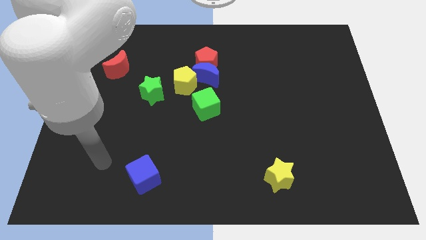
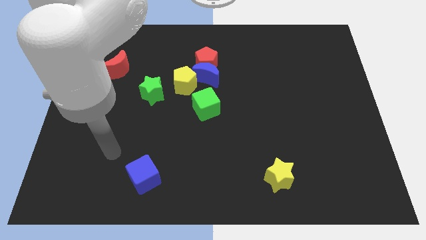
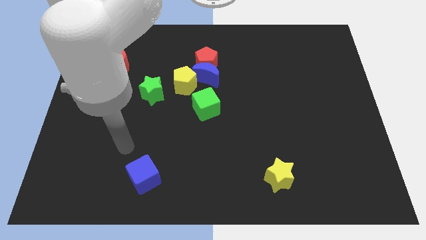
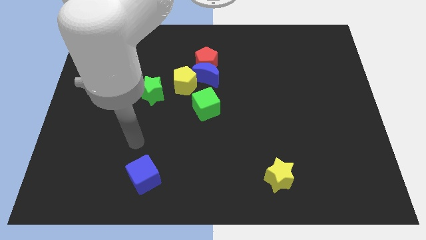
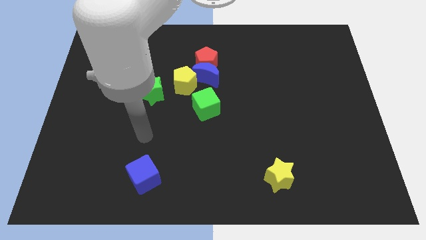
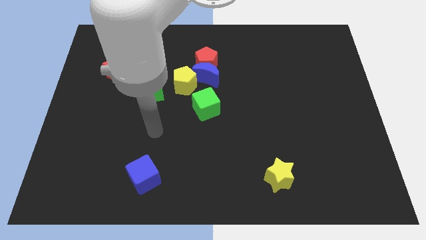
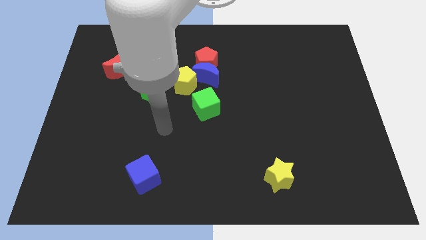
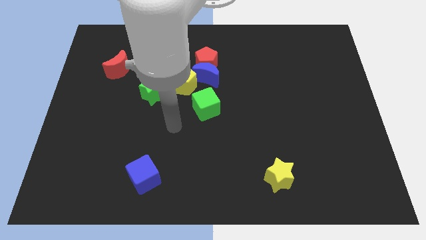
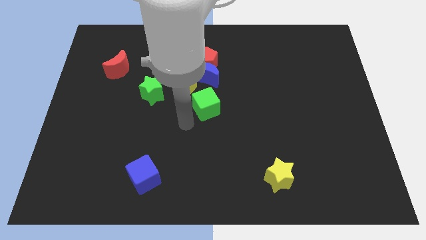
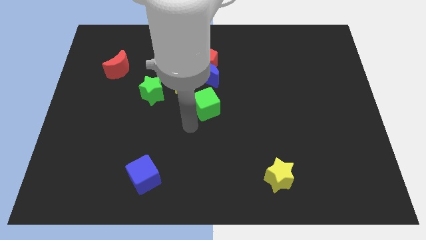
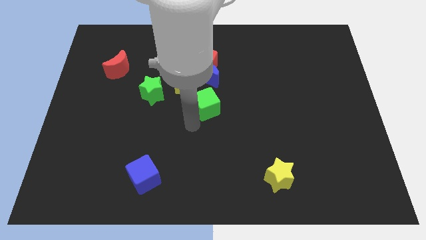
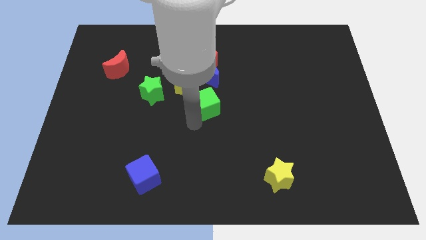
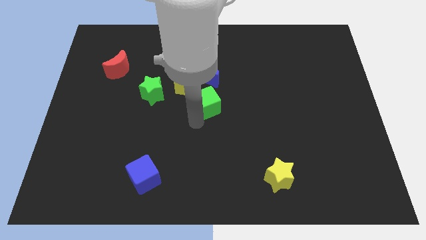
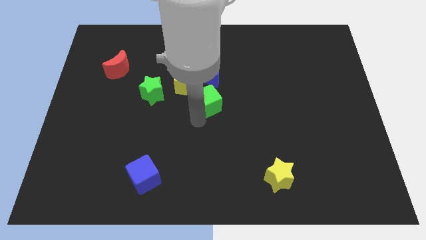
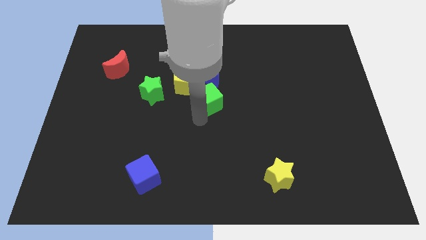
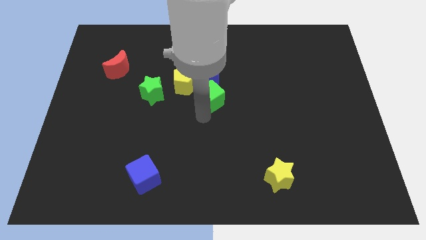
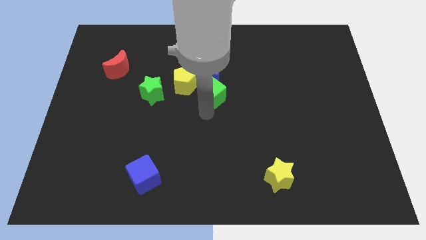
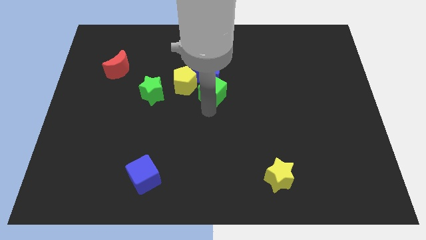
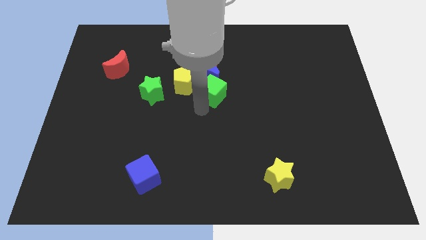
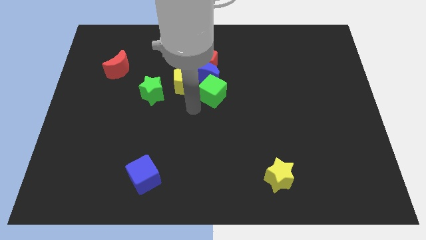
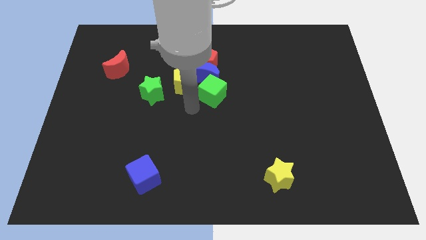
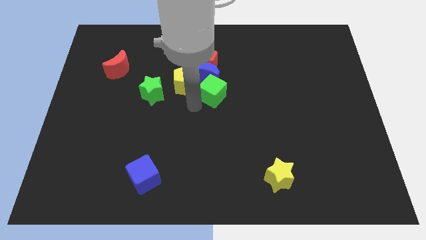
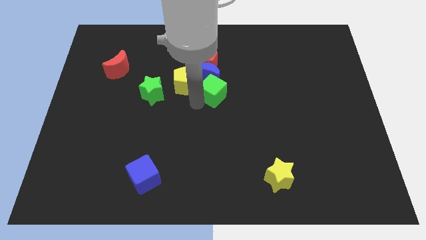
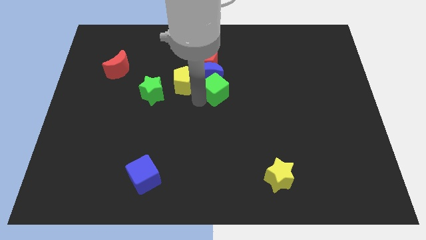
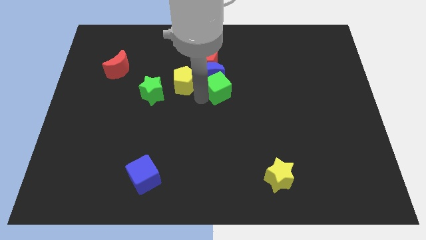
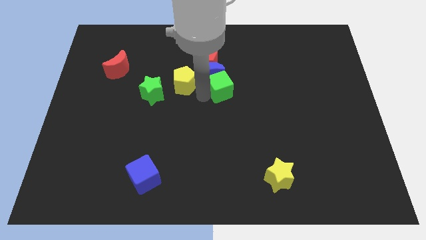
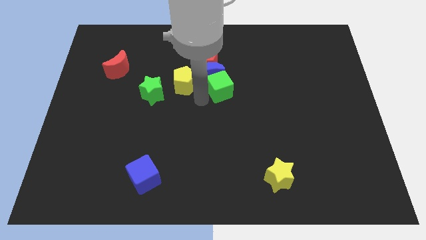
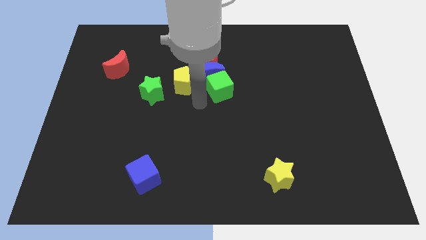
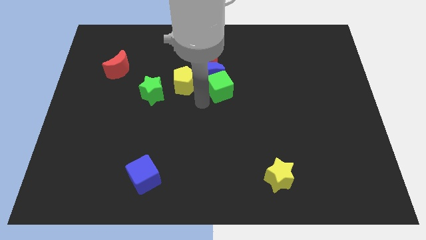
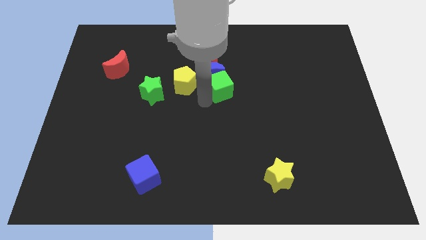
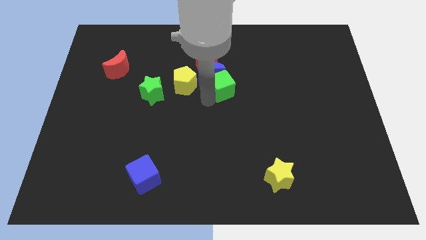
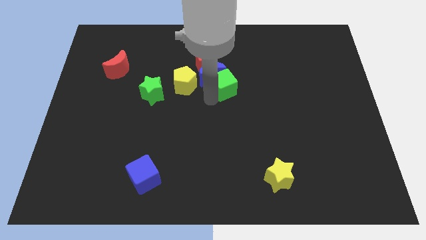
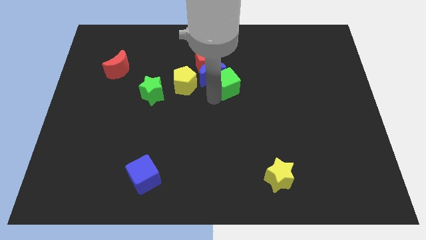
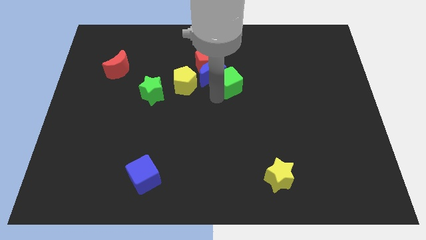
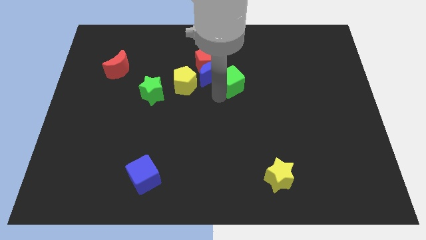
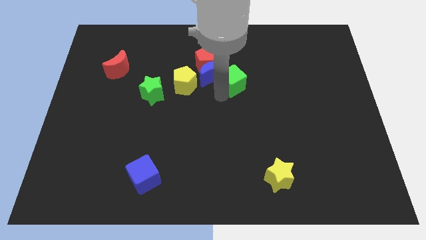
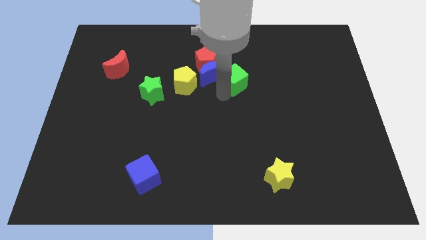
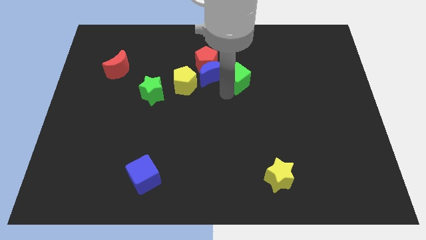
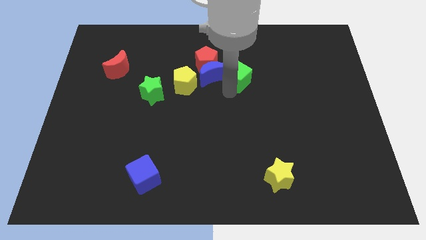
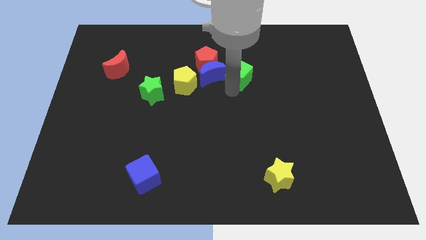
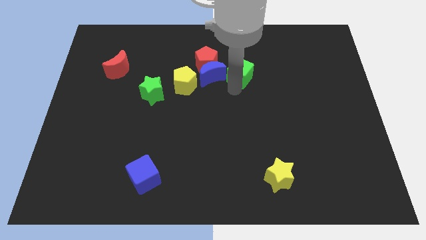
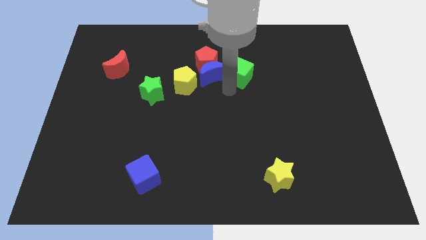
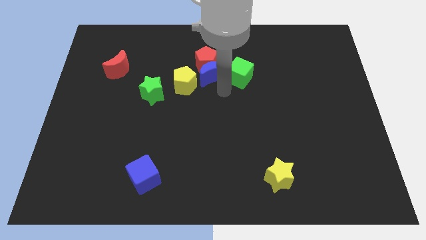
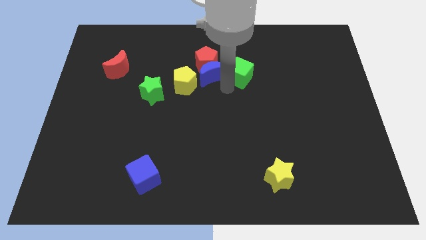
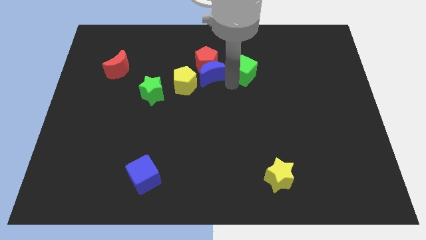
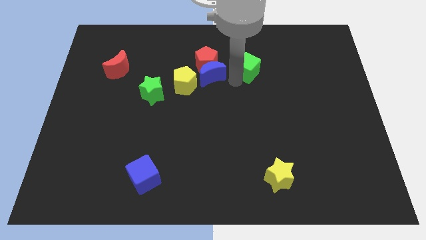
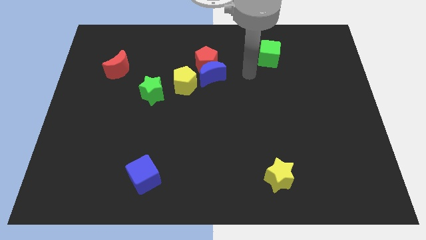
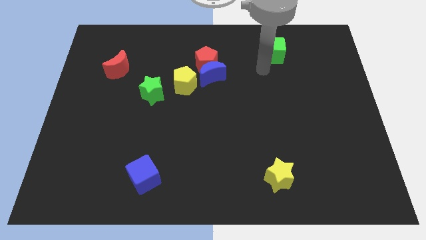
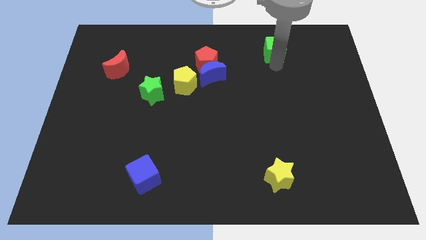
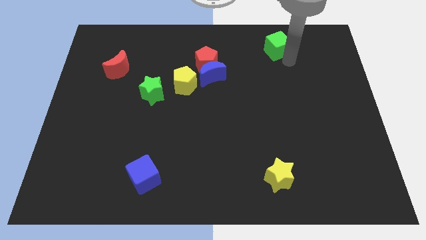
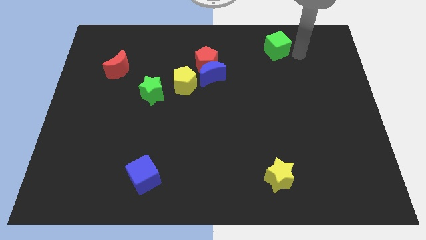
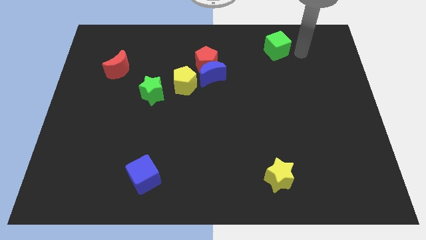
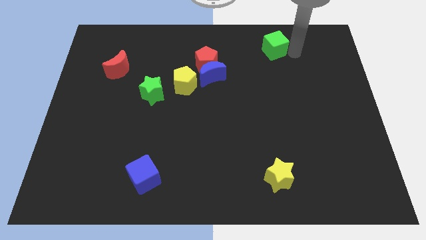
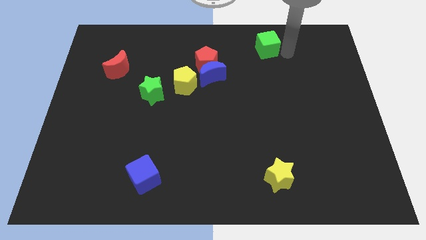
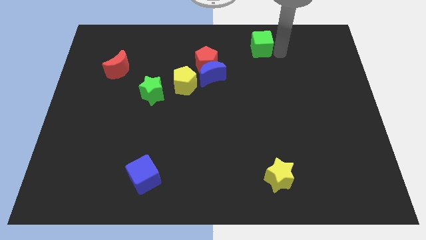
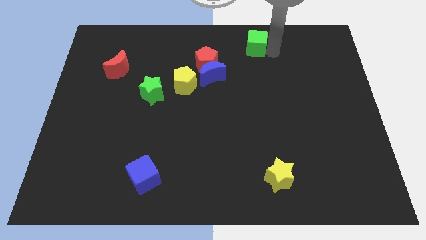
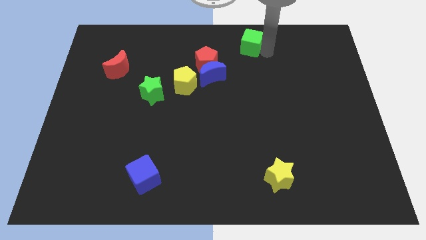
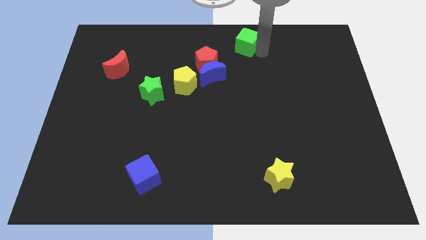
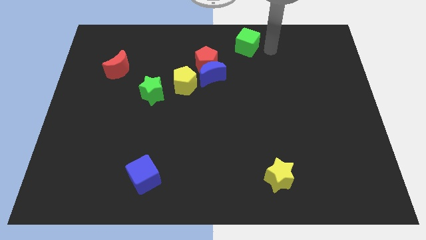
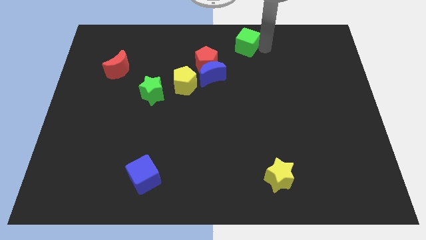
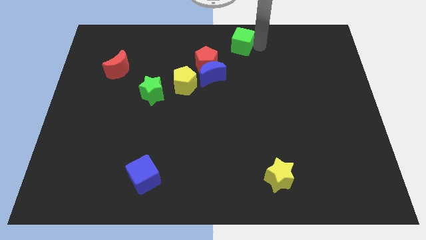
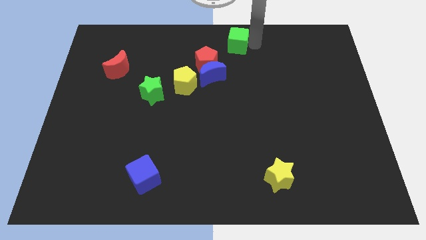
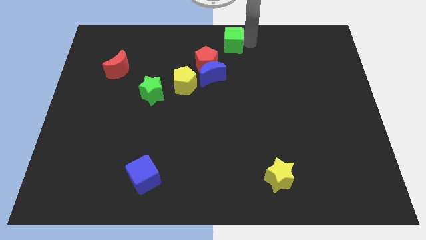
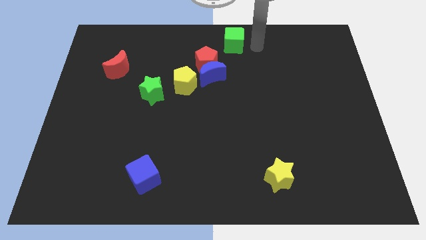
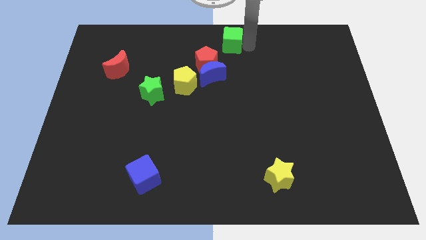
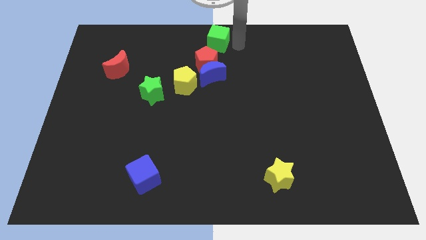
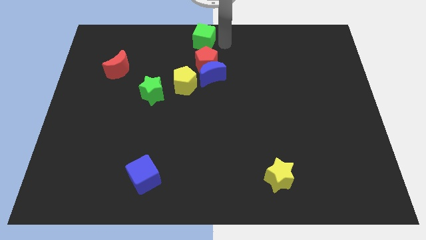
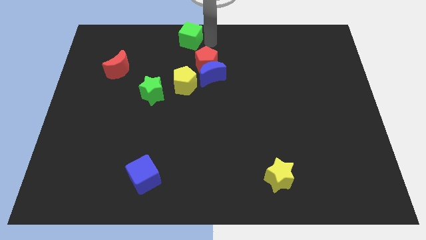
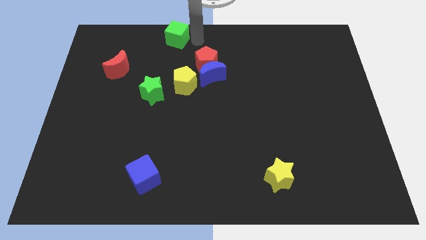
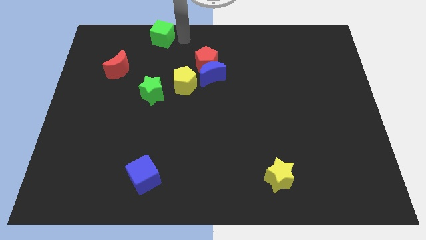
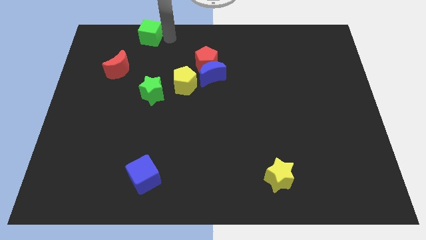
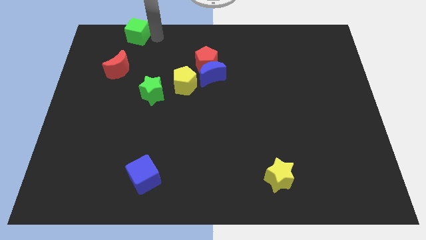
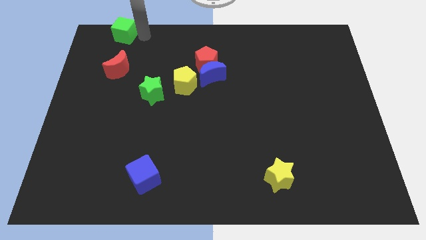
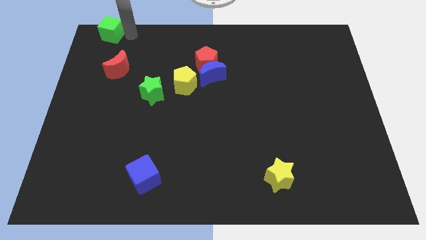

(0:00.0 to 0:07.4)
push the green cube to the top left corner
